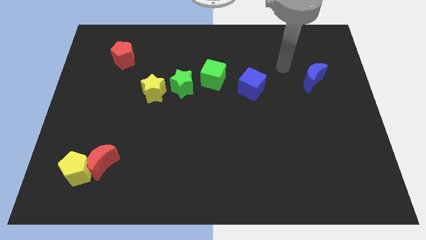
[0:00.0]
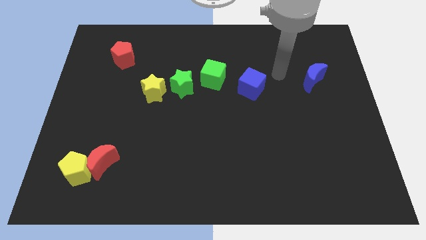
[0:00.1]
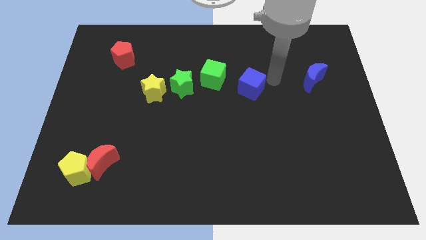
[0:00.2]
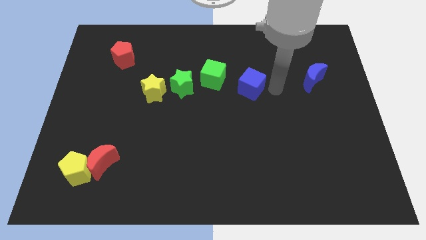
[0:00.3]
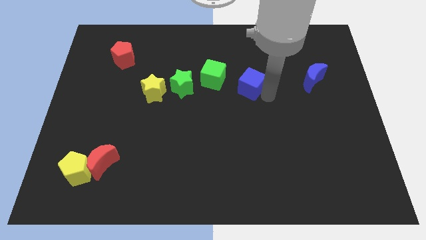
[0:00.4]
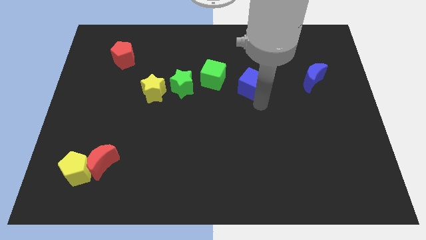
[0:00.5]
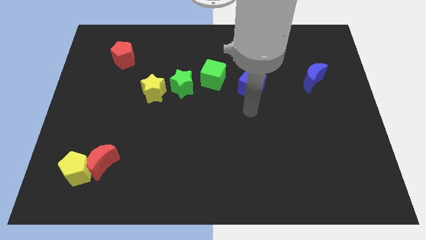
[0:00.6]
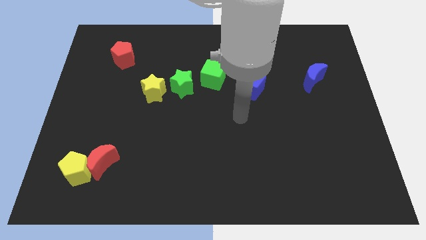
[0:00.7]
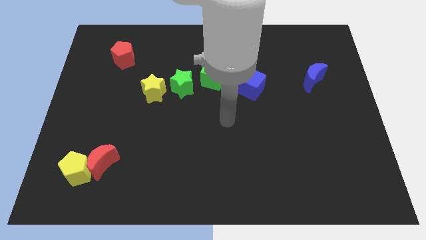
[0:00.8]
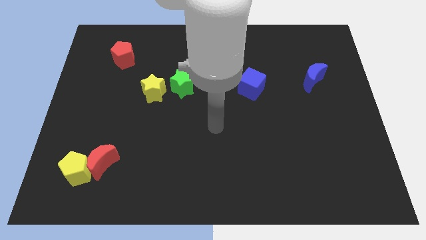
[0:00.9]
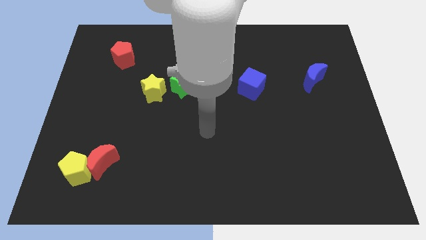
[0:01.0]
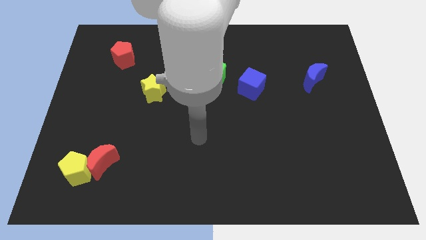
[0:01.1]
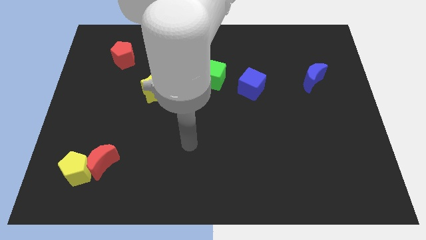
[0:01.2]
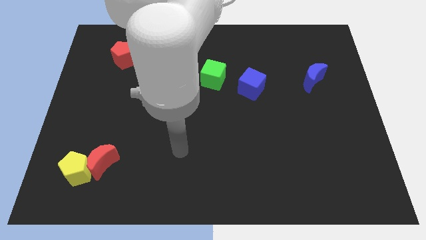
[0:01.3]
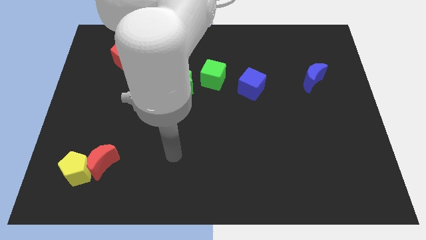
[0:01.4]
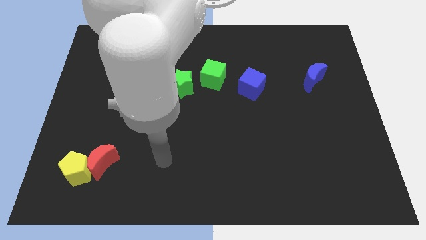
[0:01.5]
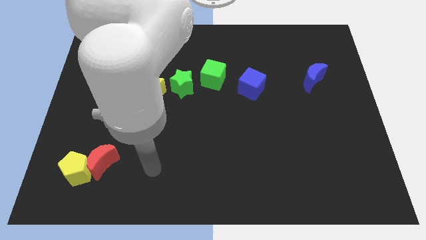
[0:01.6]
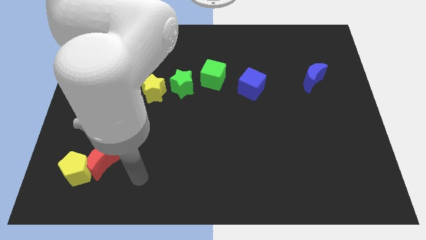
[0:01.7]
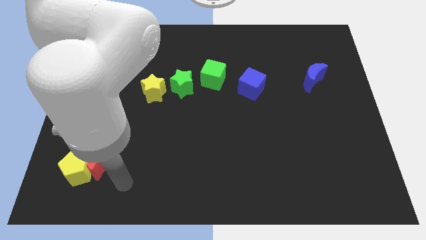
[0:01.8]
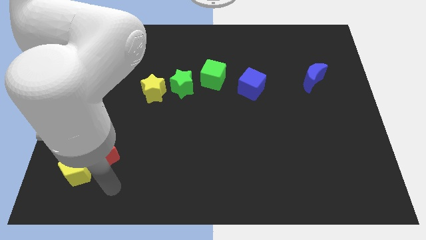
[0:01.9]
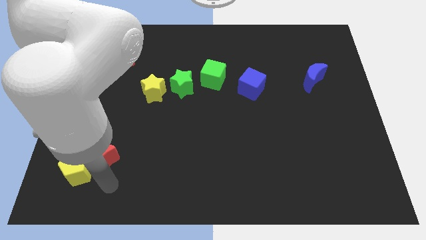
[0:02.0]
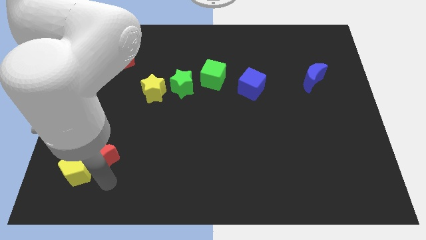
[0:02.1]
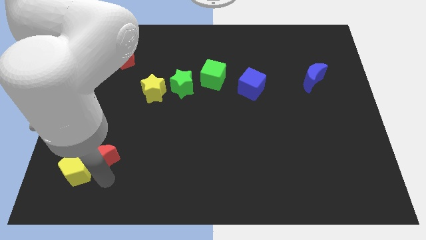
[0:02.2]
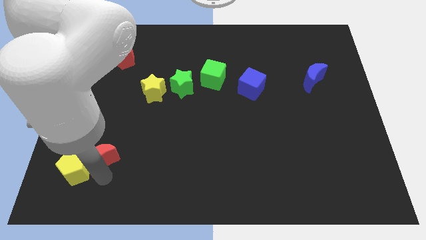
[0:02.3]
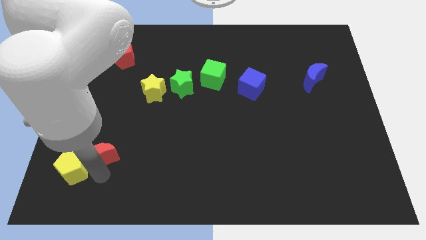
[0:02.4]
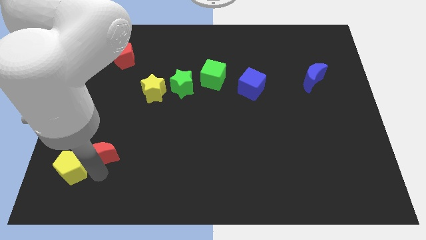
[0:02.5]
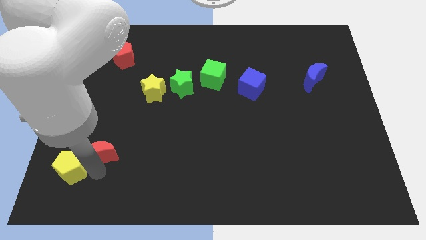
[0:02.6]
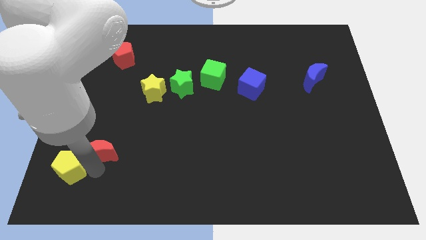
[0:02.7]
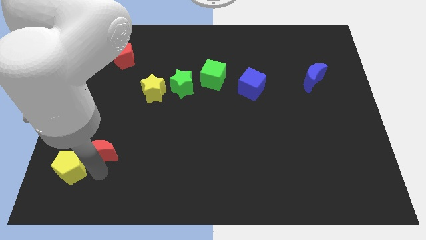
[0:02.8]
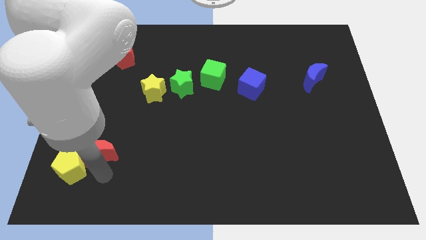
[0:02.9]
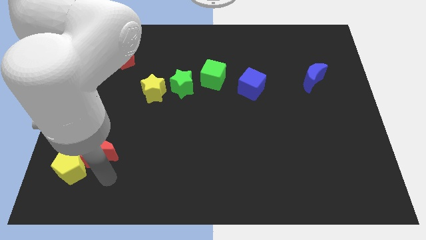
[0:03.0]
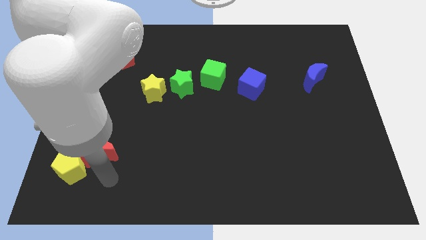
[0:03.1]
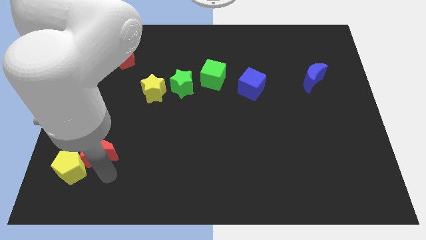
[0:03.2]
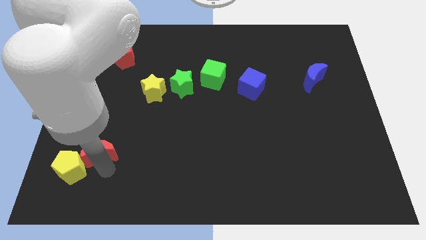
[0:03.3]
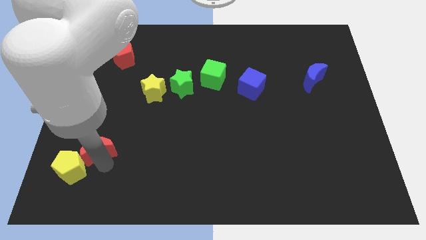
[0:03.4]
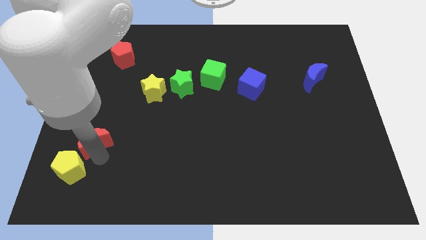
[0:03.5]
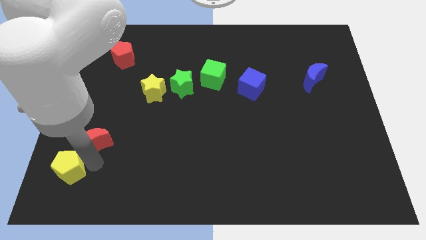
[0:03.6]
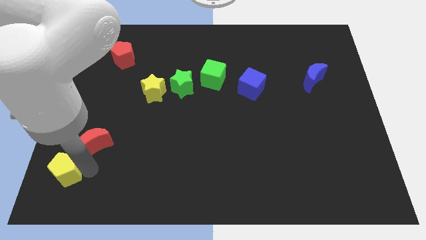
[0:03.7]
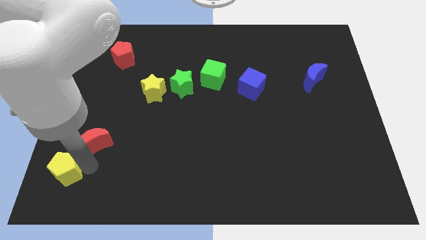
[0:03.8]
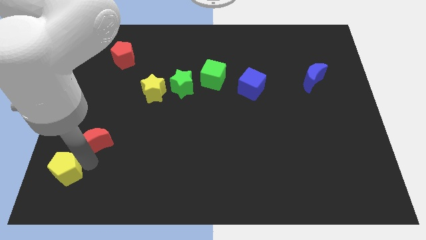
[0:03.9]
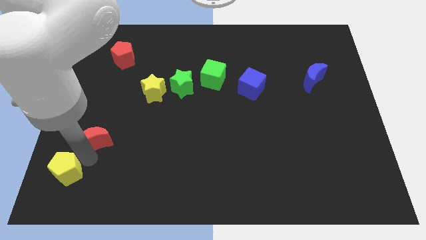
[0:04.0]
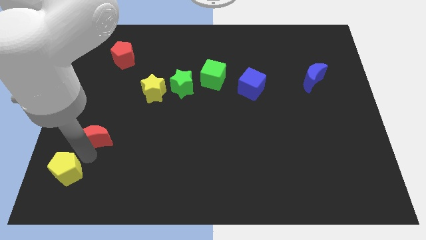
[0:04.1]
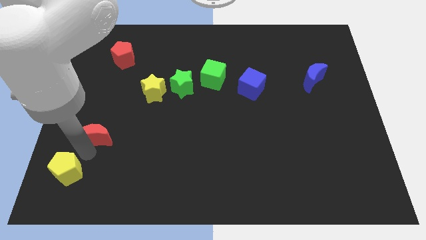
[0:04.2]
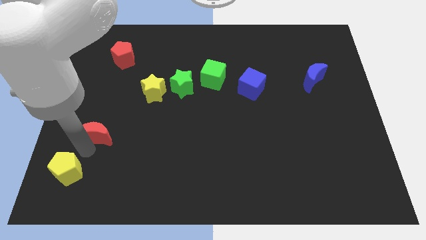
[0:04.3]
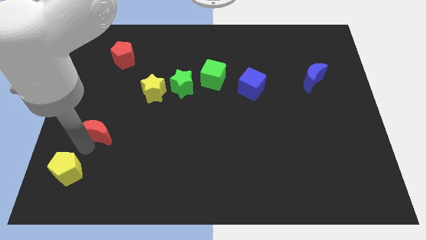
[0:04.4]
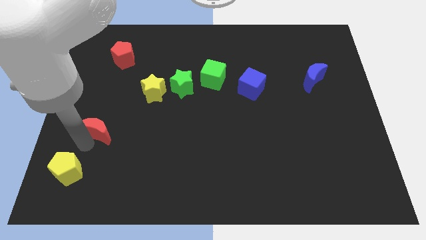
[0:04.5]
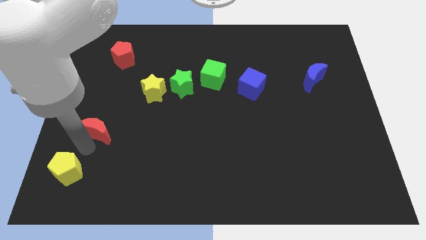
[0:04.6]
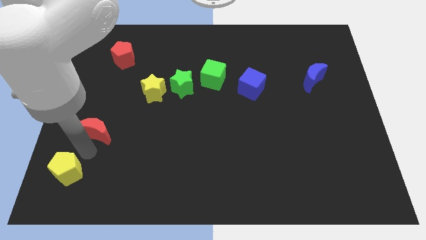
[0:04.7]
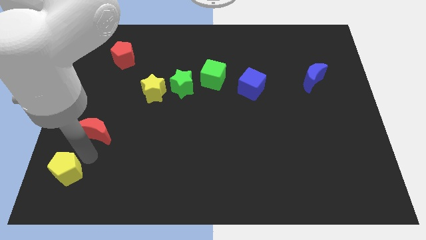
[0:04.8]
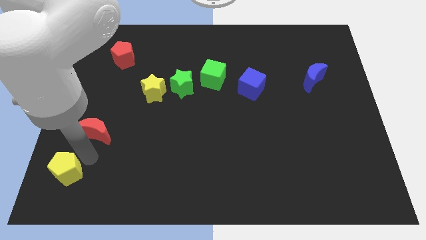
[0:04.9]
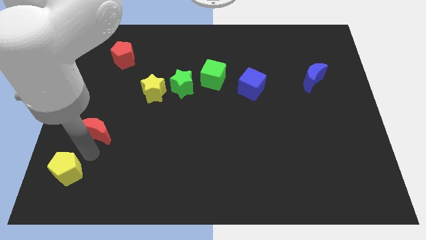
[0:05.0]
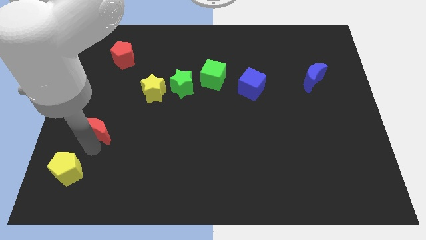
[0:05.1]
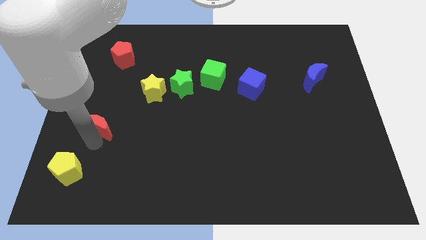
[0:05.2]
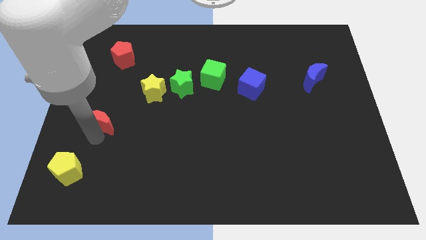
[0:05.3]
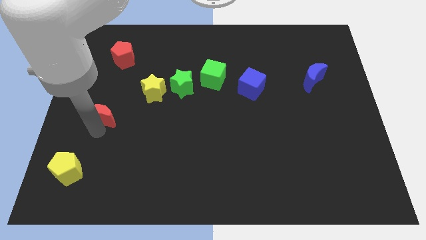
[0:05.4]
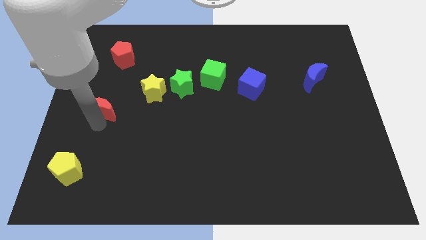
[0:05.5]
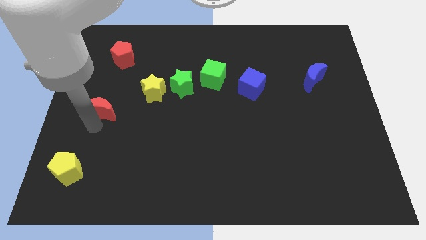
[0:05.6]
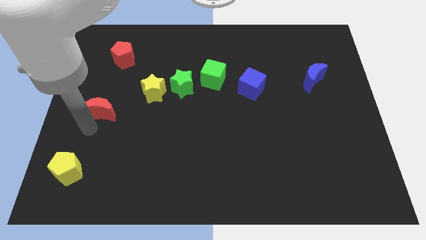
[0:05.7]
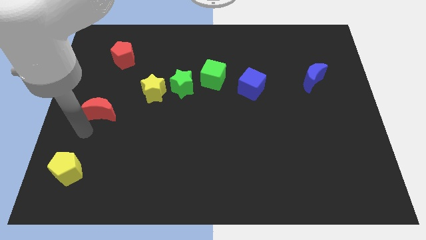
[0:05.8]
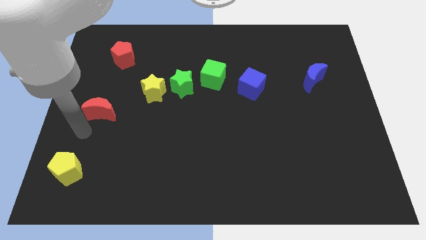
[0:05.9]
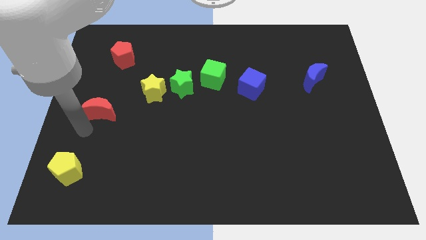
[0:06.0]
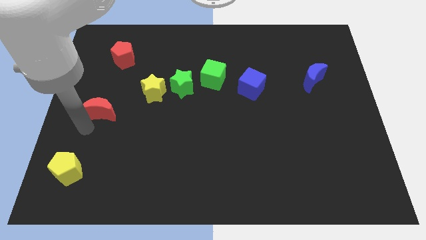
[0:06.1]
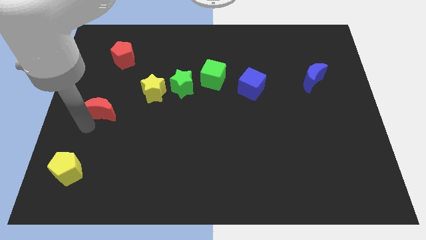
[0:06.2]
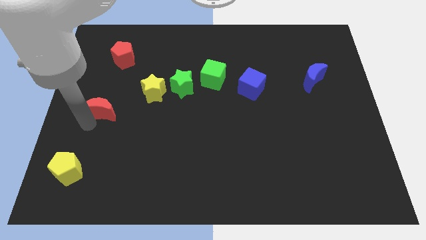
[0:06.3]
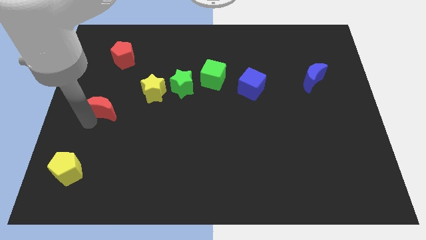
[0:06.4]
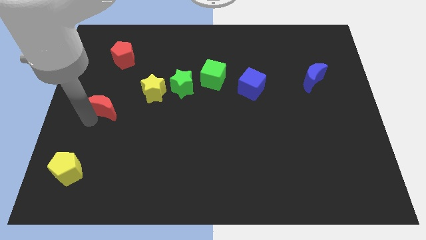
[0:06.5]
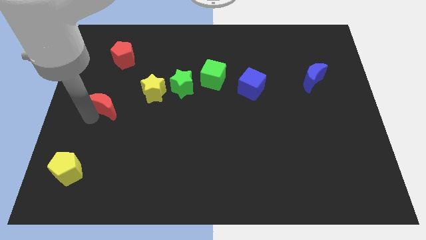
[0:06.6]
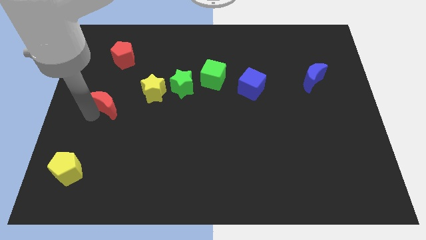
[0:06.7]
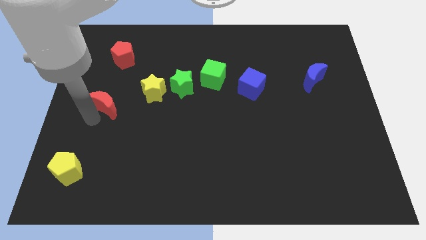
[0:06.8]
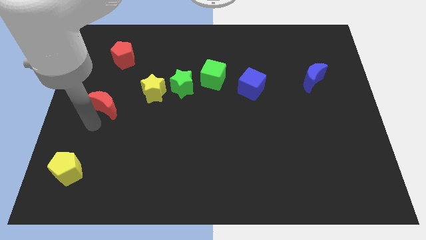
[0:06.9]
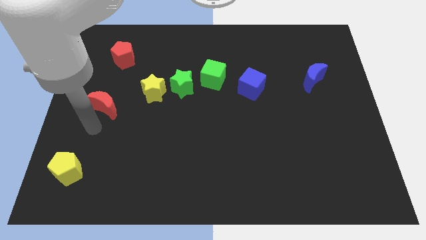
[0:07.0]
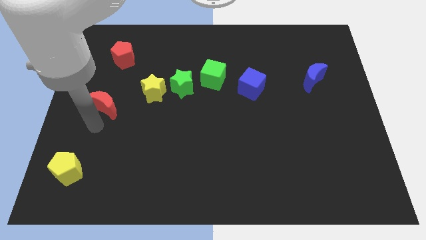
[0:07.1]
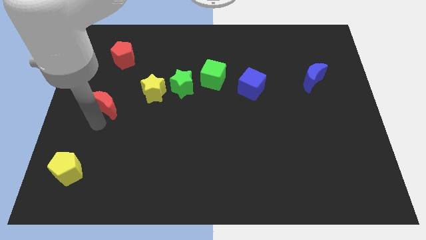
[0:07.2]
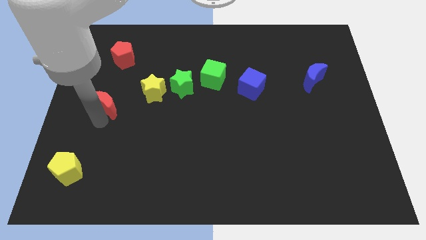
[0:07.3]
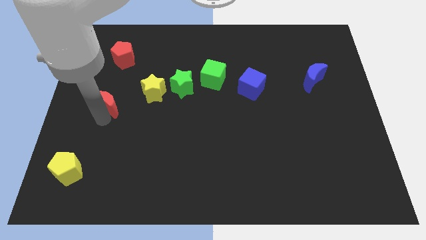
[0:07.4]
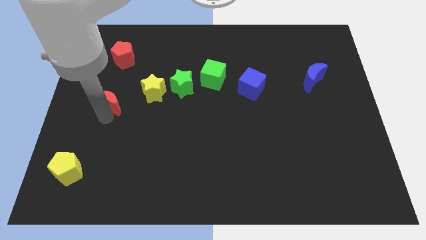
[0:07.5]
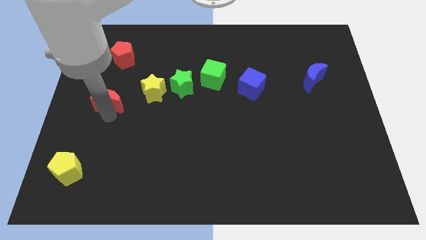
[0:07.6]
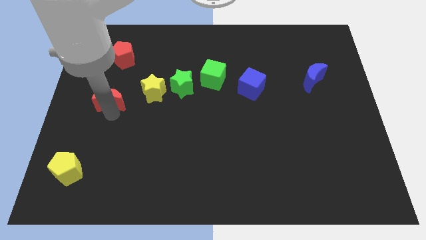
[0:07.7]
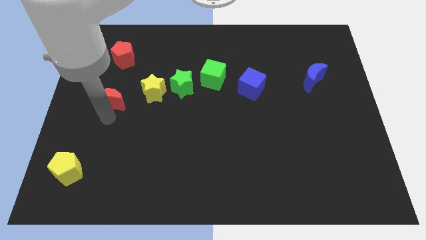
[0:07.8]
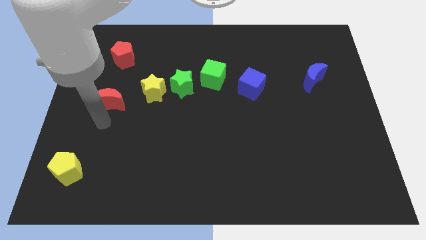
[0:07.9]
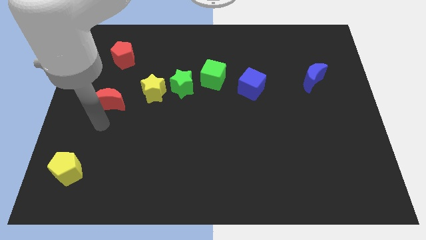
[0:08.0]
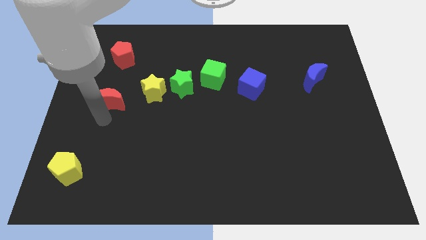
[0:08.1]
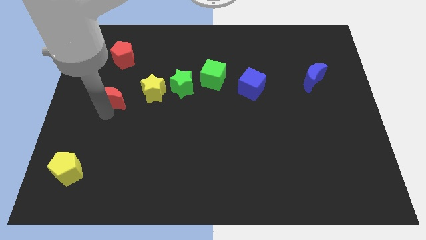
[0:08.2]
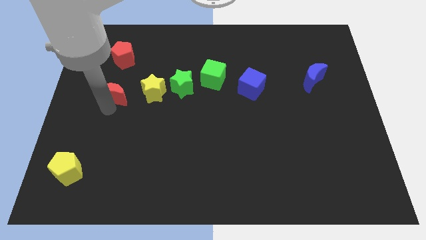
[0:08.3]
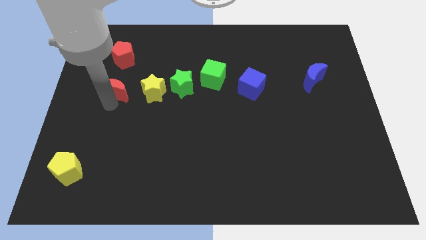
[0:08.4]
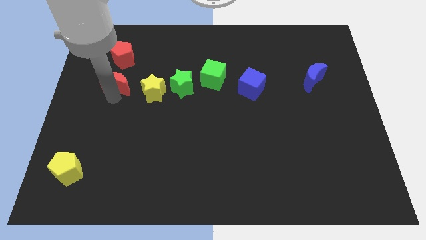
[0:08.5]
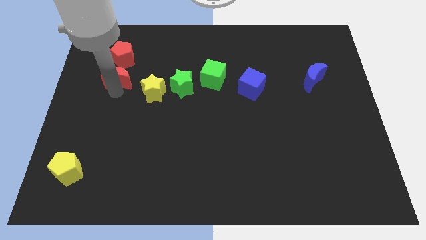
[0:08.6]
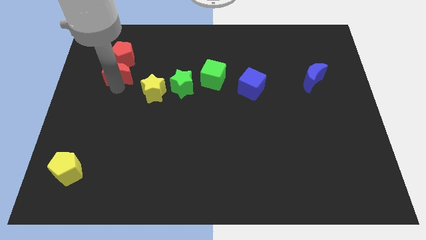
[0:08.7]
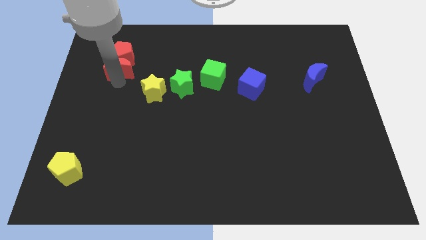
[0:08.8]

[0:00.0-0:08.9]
put the red moon close to the red pentagon
